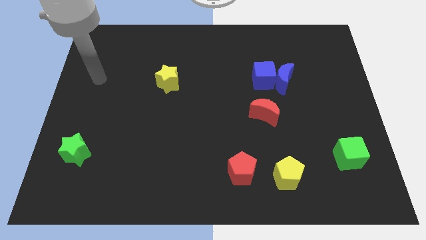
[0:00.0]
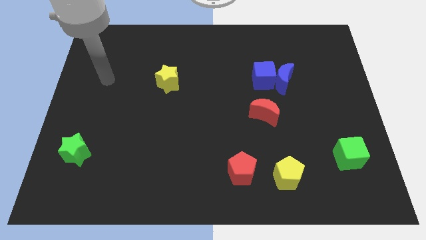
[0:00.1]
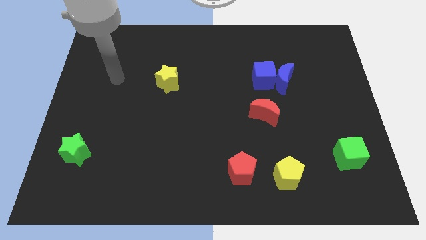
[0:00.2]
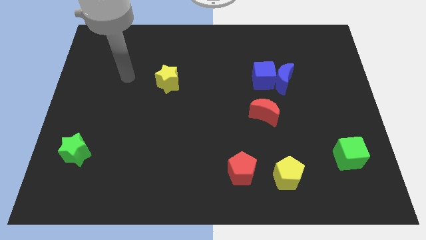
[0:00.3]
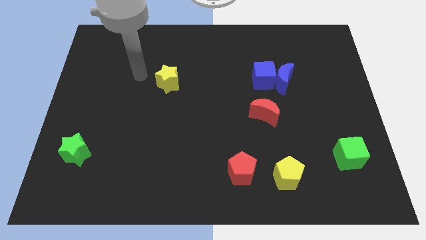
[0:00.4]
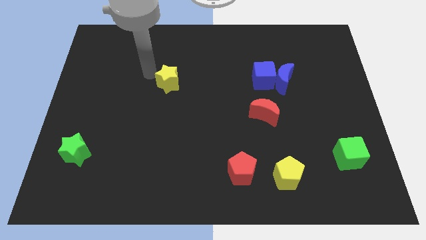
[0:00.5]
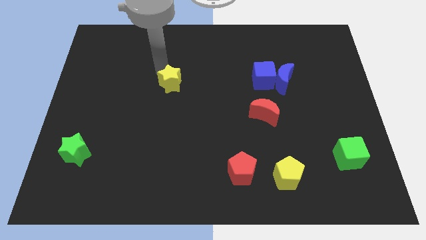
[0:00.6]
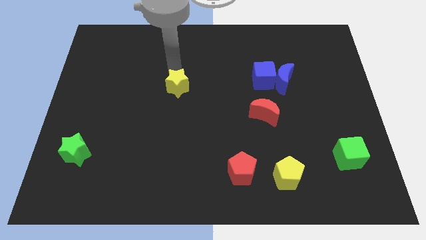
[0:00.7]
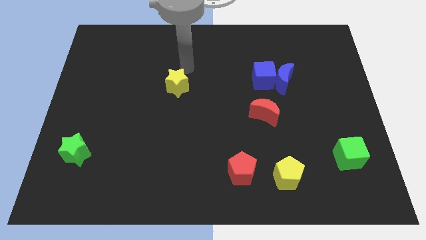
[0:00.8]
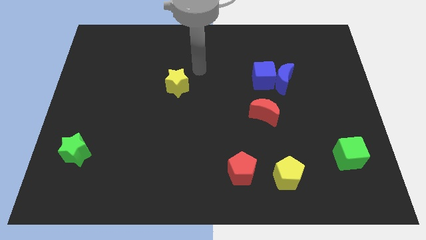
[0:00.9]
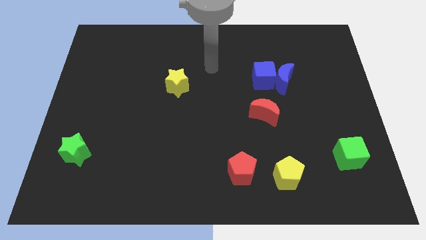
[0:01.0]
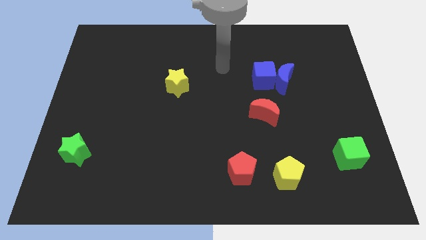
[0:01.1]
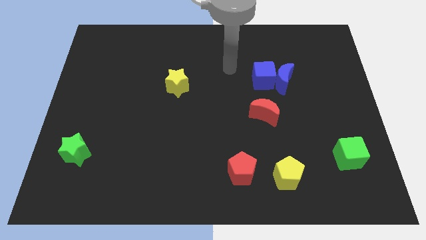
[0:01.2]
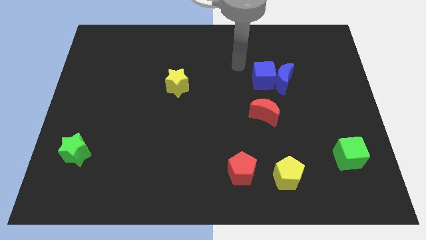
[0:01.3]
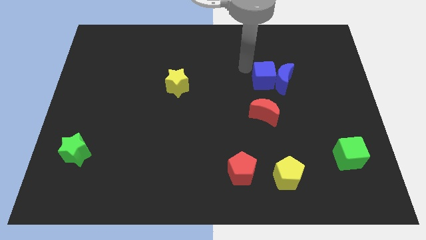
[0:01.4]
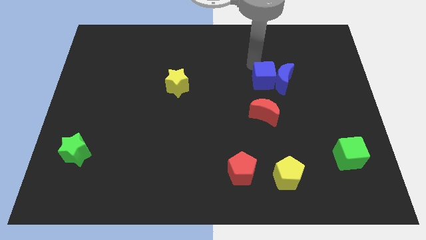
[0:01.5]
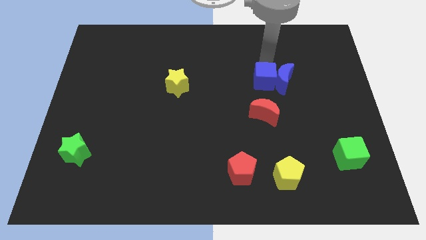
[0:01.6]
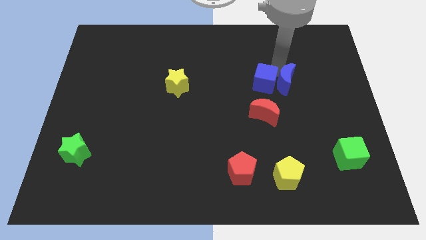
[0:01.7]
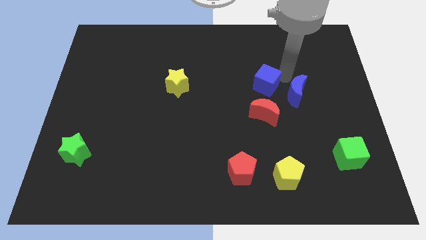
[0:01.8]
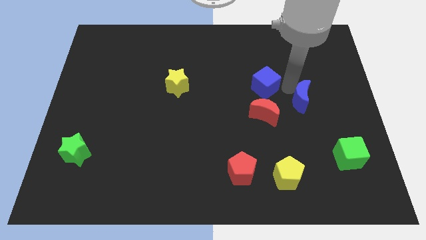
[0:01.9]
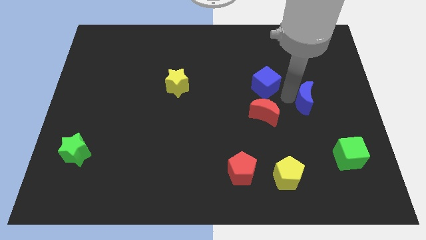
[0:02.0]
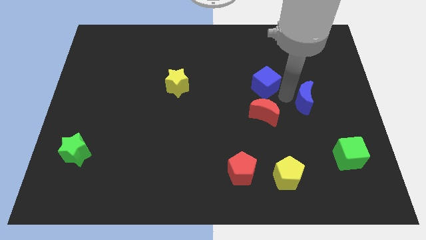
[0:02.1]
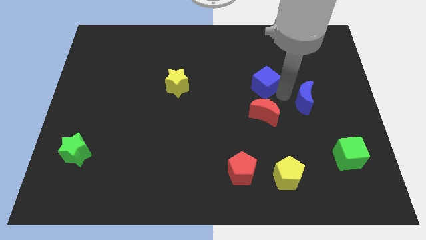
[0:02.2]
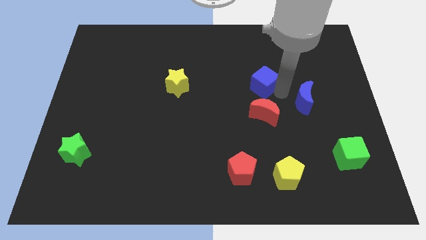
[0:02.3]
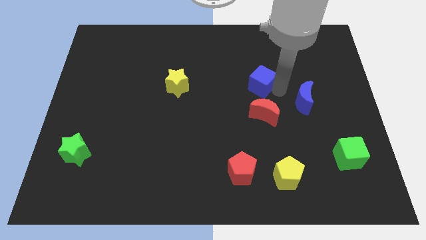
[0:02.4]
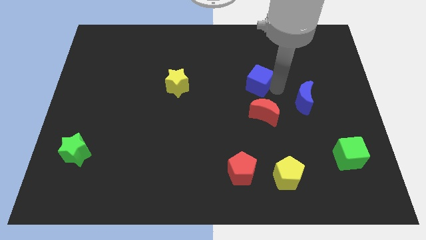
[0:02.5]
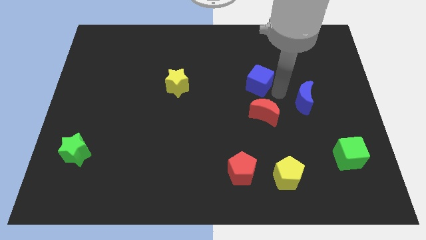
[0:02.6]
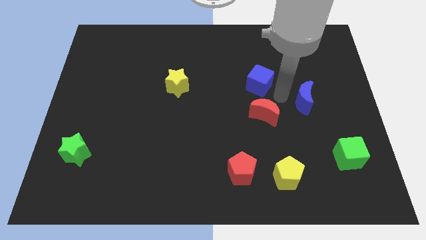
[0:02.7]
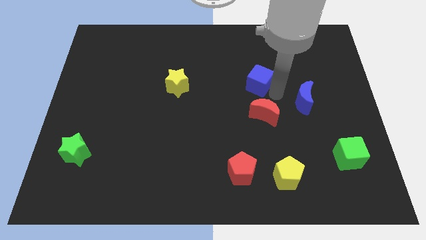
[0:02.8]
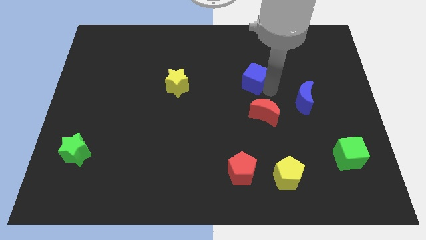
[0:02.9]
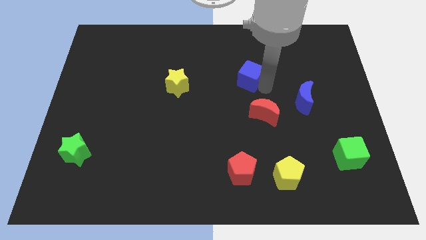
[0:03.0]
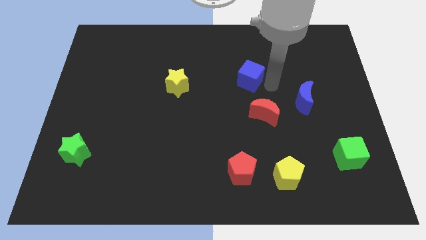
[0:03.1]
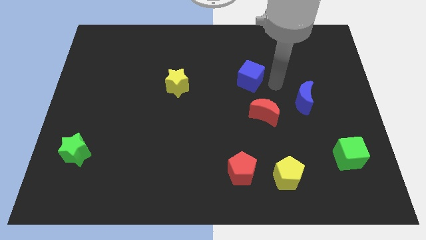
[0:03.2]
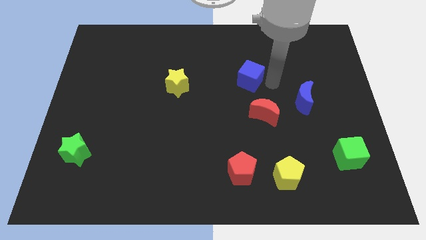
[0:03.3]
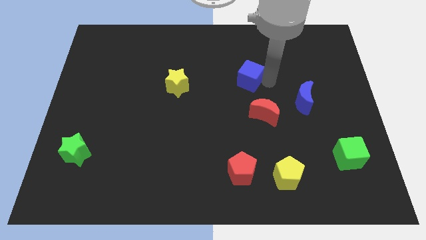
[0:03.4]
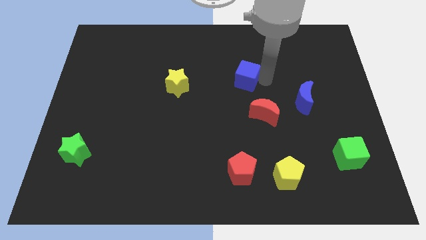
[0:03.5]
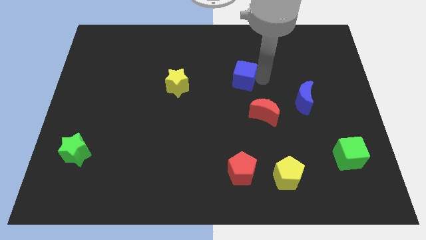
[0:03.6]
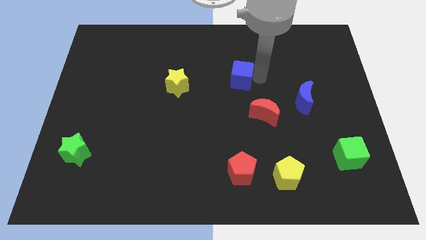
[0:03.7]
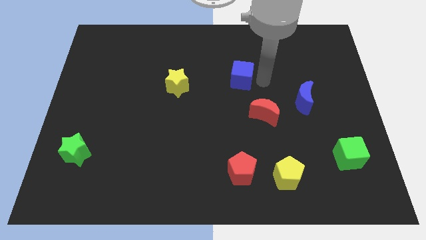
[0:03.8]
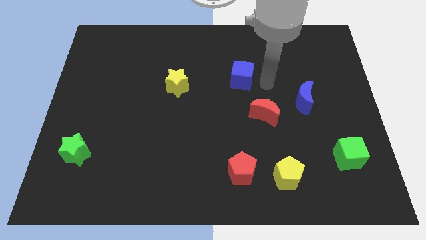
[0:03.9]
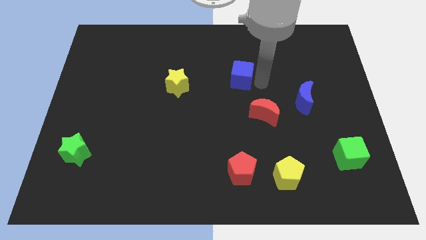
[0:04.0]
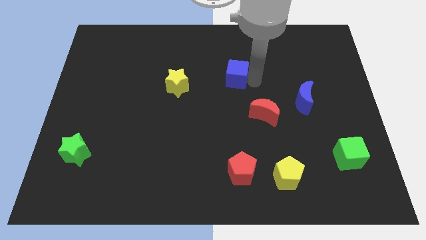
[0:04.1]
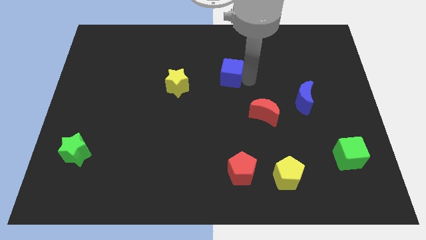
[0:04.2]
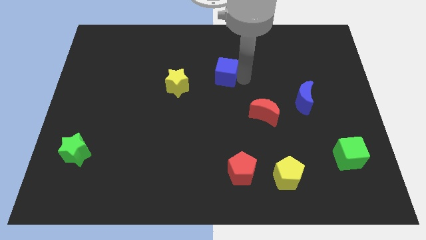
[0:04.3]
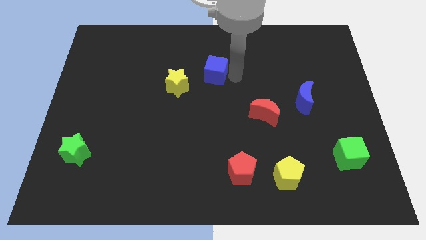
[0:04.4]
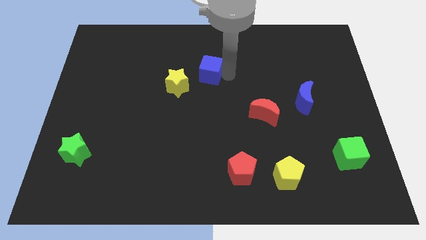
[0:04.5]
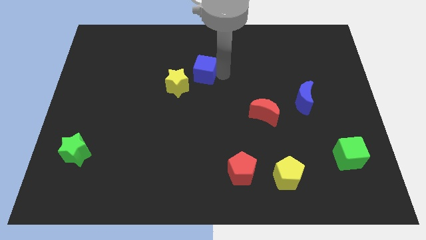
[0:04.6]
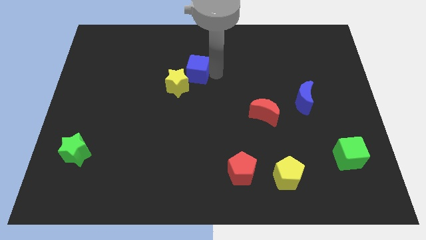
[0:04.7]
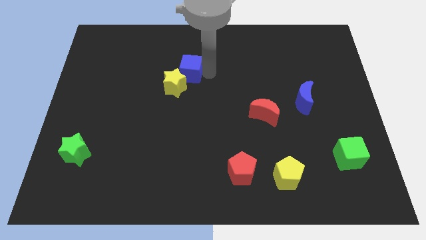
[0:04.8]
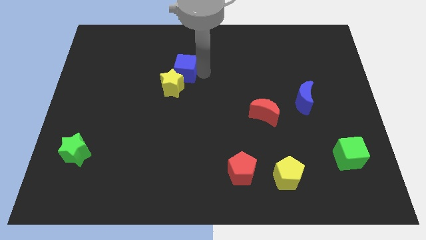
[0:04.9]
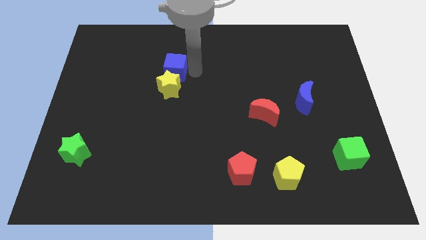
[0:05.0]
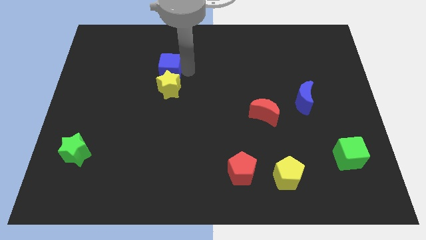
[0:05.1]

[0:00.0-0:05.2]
slide the blue cube to the top left side of the yellow star

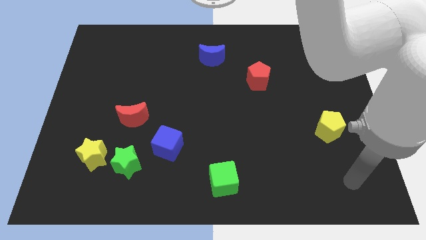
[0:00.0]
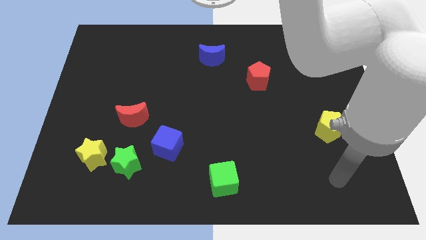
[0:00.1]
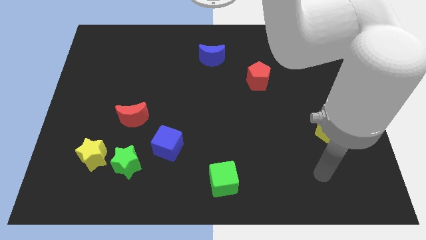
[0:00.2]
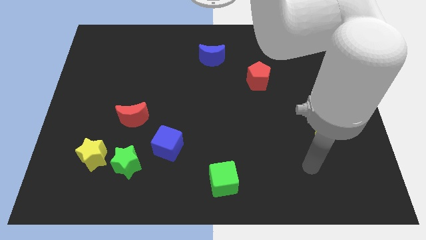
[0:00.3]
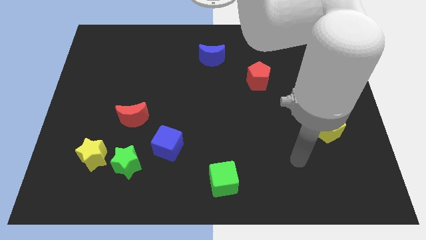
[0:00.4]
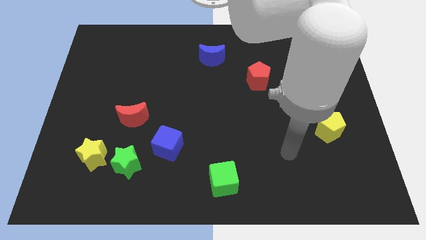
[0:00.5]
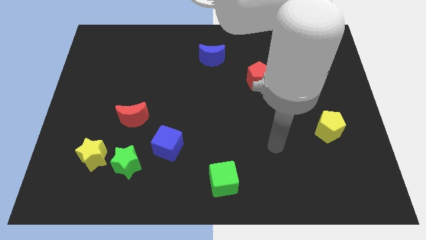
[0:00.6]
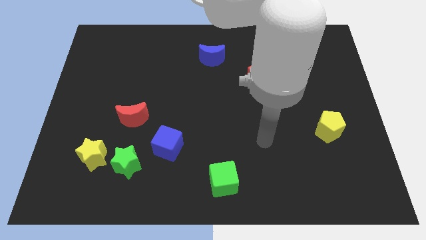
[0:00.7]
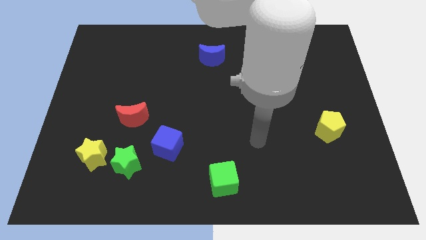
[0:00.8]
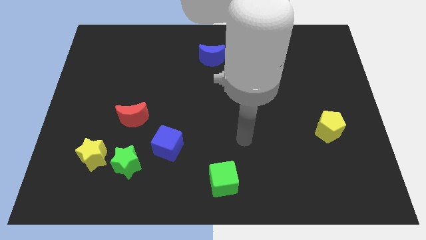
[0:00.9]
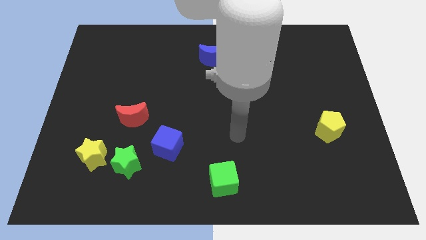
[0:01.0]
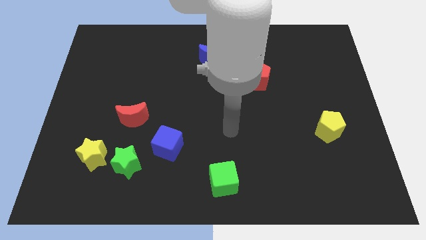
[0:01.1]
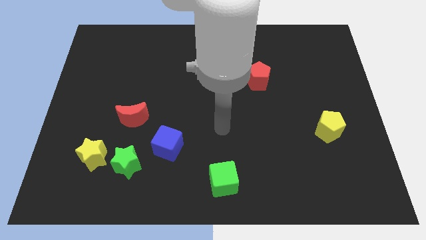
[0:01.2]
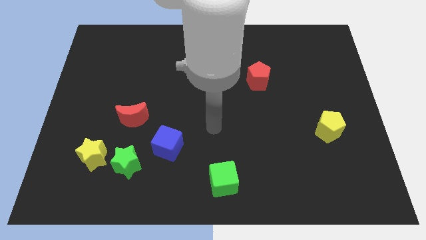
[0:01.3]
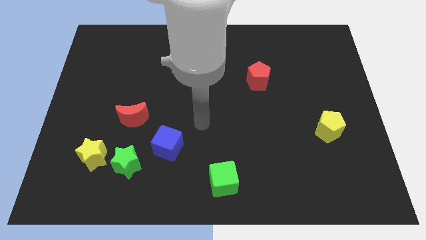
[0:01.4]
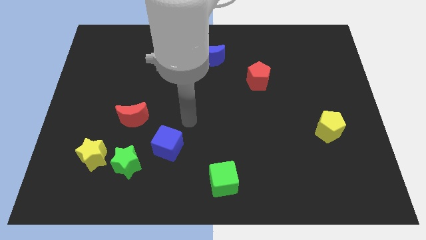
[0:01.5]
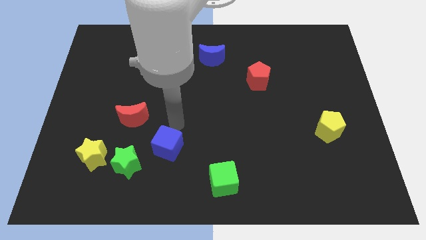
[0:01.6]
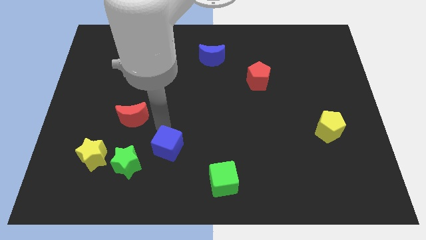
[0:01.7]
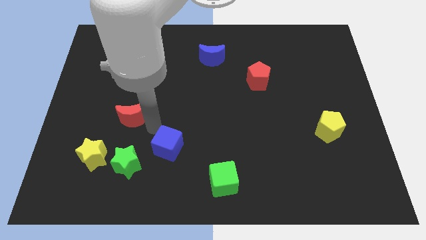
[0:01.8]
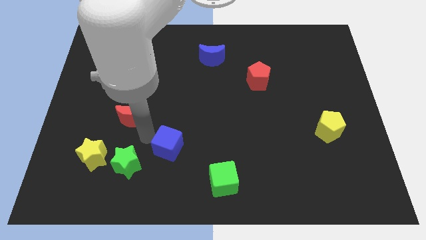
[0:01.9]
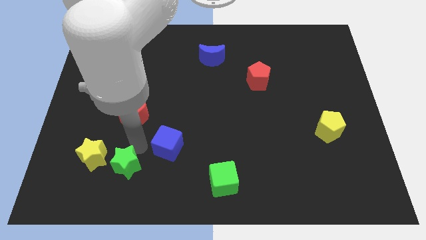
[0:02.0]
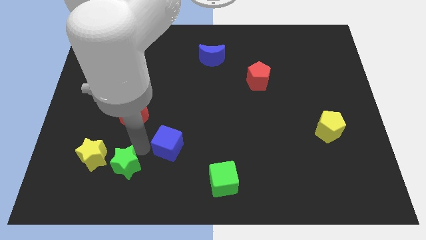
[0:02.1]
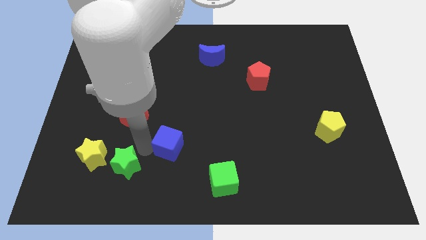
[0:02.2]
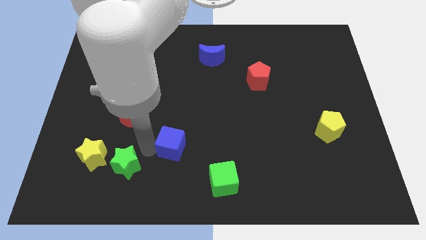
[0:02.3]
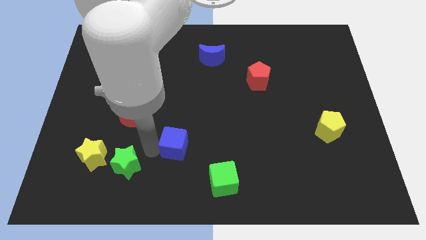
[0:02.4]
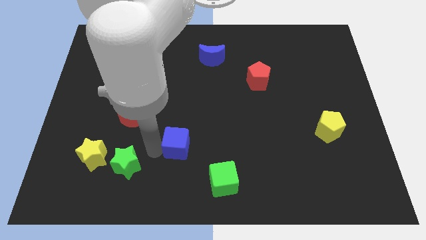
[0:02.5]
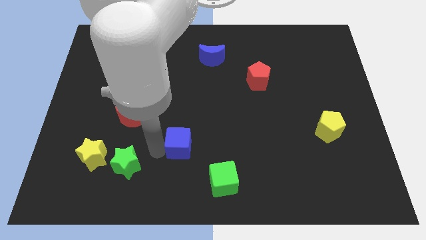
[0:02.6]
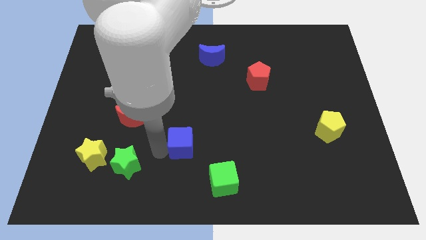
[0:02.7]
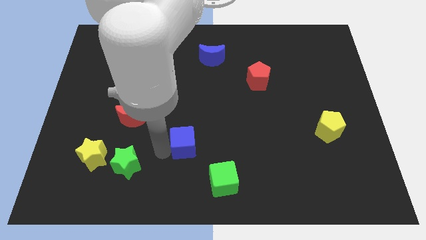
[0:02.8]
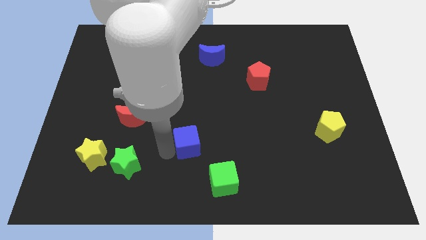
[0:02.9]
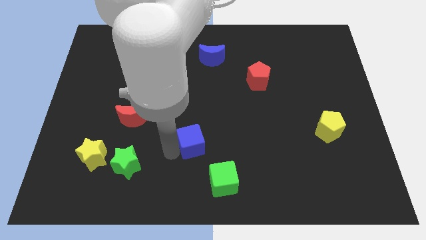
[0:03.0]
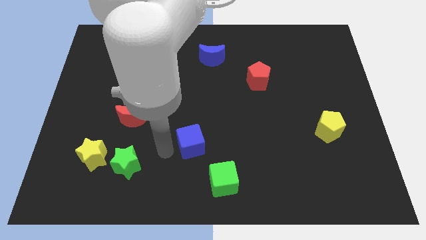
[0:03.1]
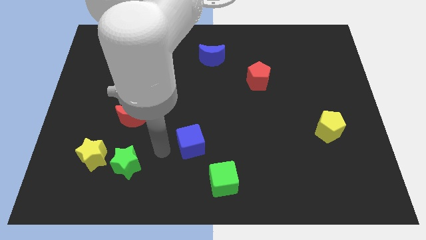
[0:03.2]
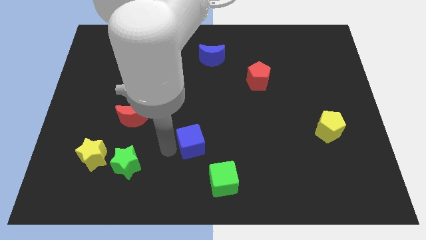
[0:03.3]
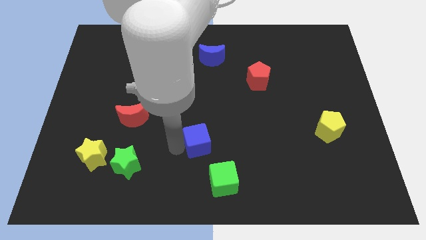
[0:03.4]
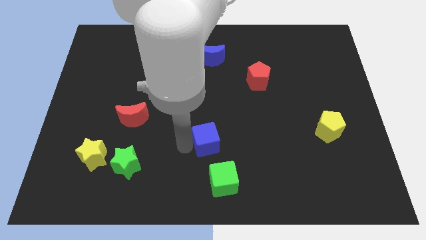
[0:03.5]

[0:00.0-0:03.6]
put the blue cube above the green cube
